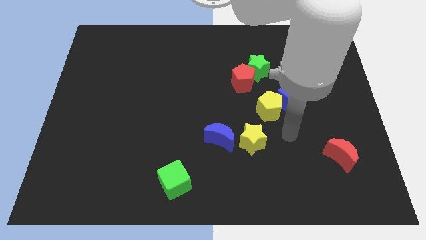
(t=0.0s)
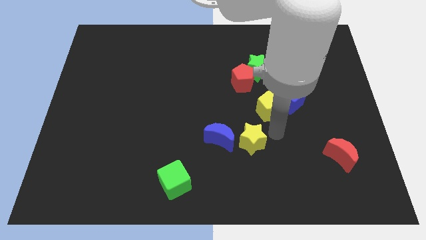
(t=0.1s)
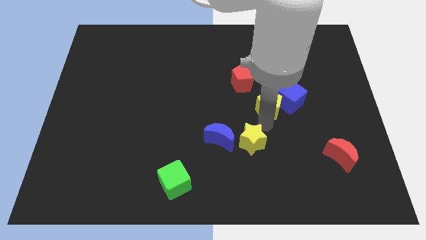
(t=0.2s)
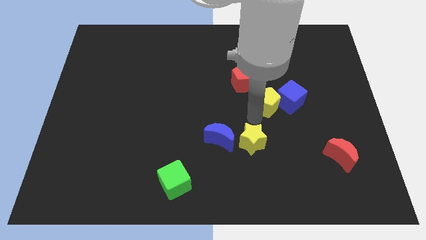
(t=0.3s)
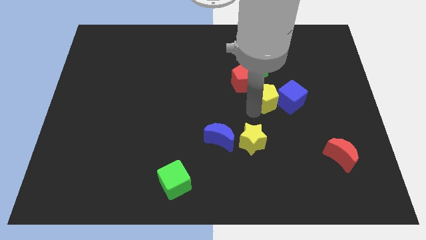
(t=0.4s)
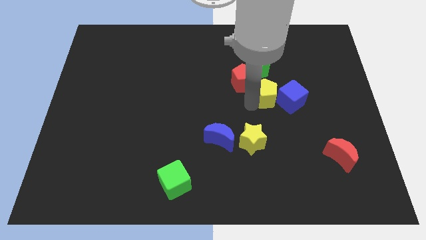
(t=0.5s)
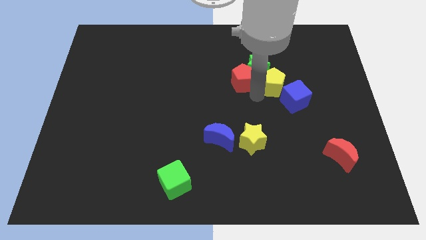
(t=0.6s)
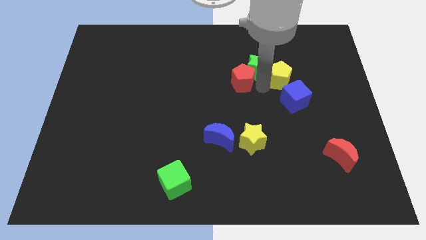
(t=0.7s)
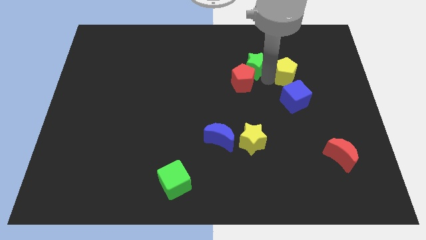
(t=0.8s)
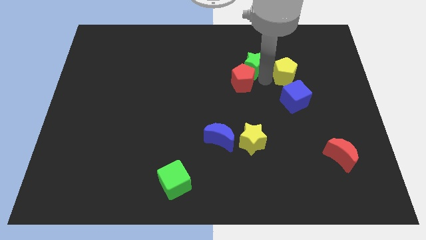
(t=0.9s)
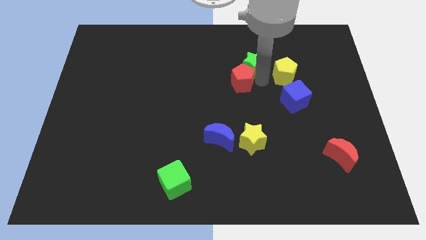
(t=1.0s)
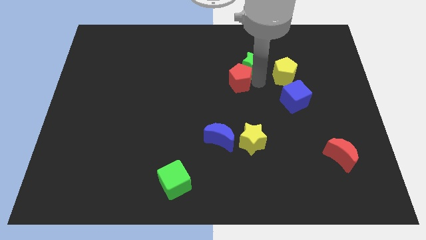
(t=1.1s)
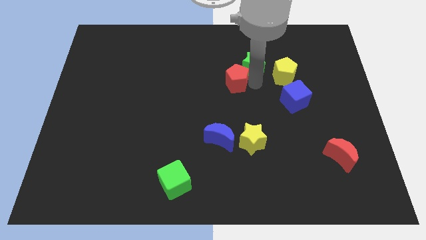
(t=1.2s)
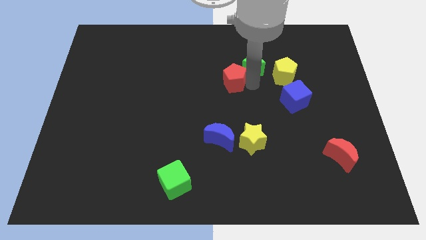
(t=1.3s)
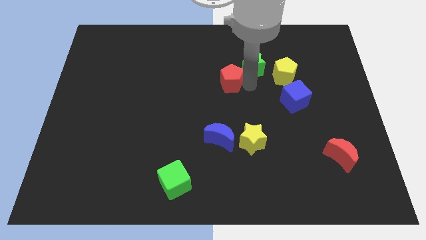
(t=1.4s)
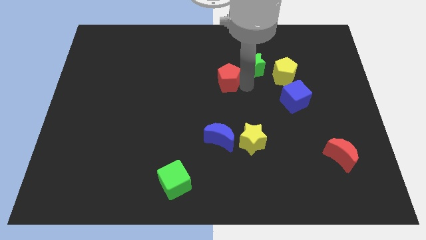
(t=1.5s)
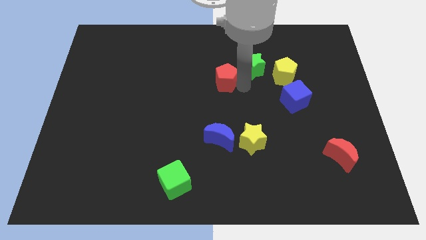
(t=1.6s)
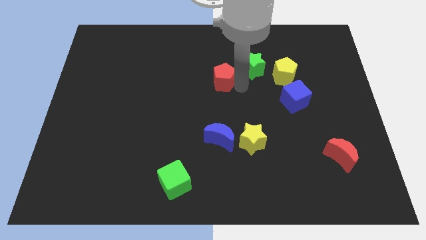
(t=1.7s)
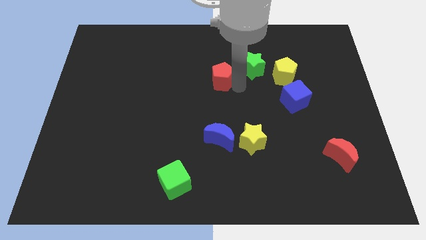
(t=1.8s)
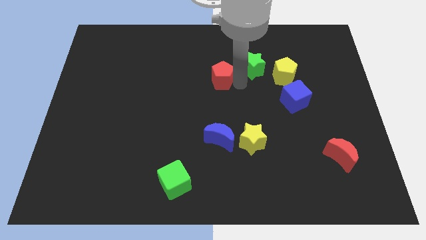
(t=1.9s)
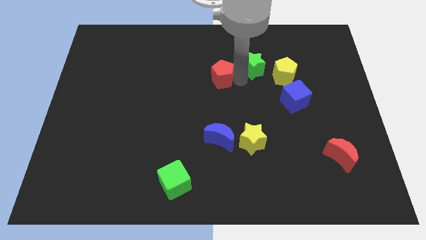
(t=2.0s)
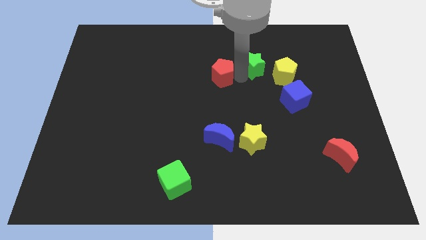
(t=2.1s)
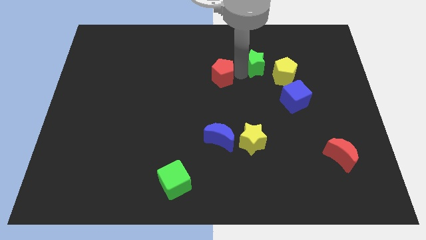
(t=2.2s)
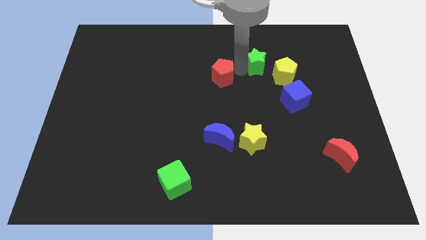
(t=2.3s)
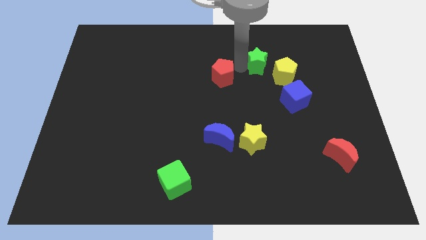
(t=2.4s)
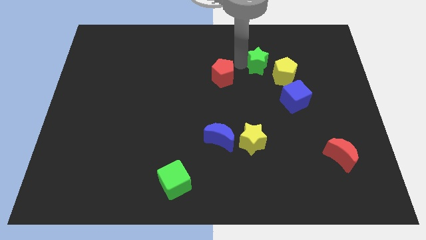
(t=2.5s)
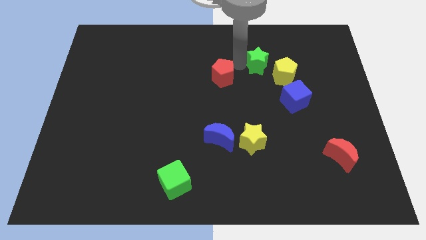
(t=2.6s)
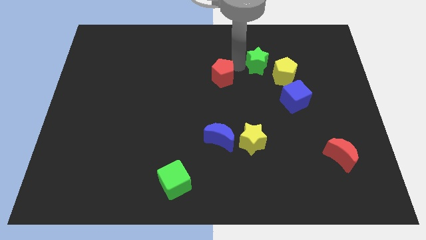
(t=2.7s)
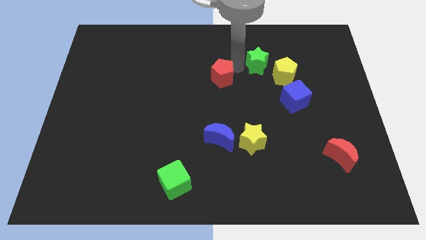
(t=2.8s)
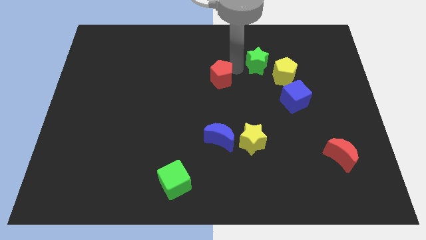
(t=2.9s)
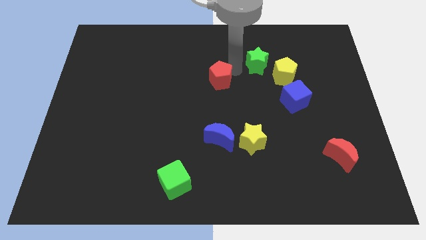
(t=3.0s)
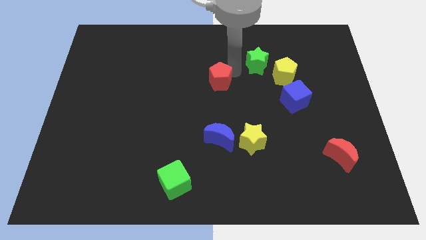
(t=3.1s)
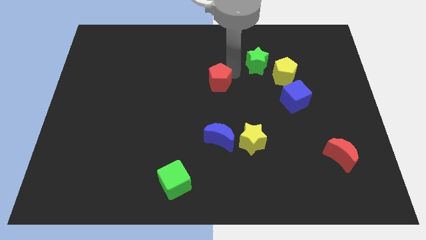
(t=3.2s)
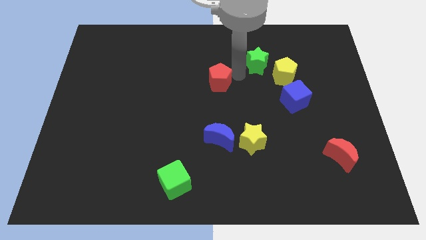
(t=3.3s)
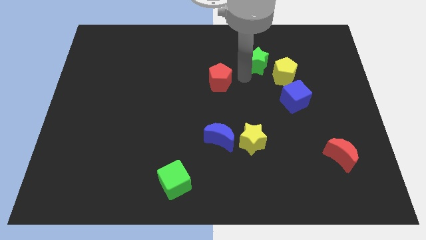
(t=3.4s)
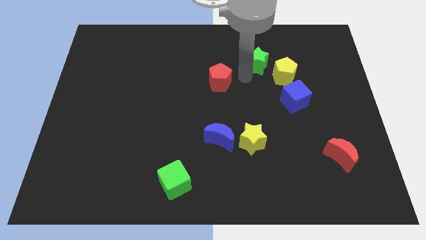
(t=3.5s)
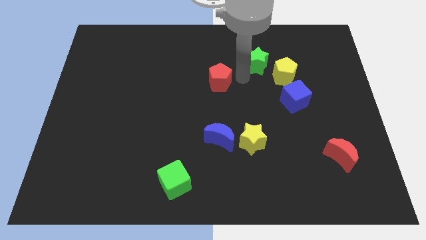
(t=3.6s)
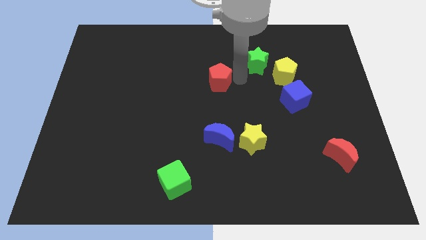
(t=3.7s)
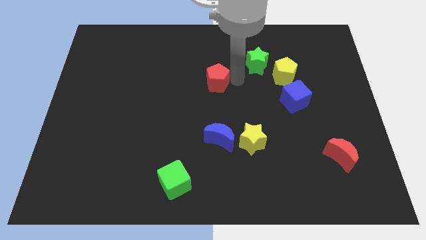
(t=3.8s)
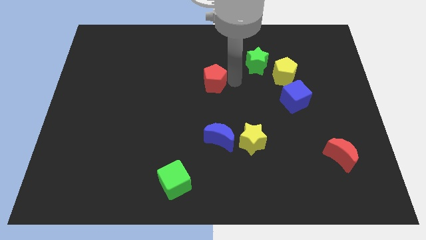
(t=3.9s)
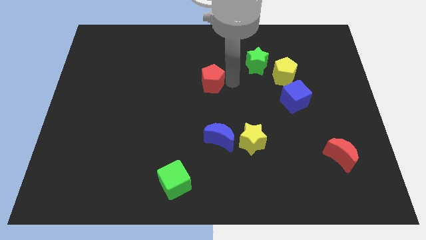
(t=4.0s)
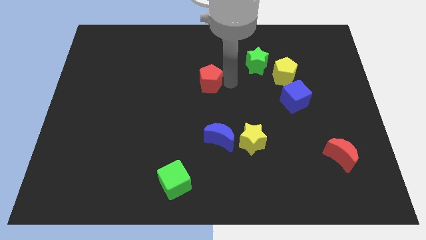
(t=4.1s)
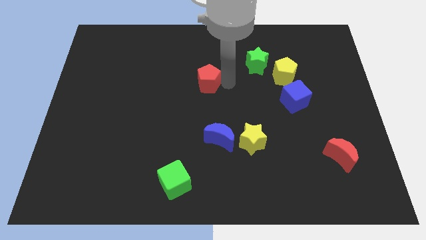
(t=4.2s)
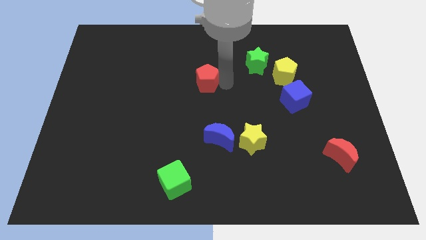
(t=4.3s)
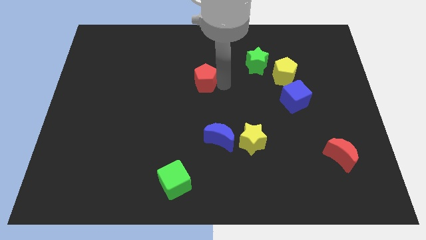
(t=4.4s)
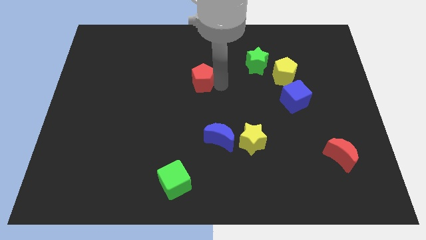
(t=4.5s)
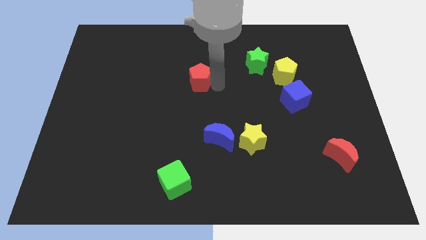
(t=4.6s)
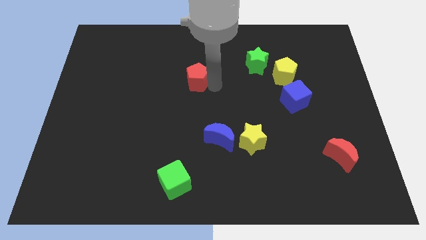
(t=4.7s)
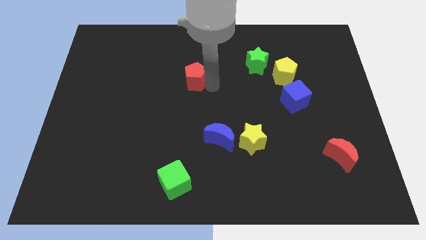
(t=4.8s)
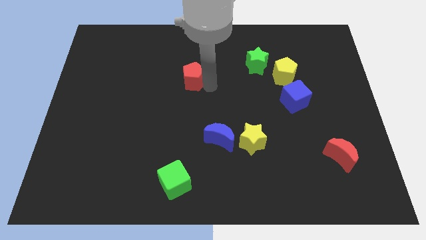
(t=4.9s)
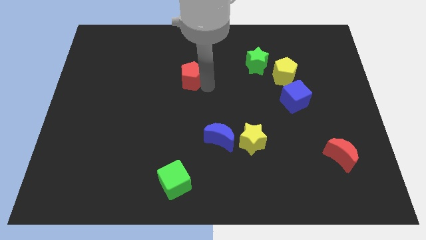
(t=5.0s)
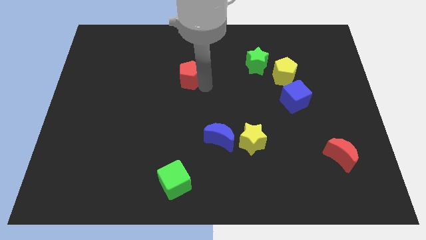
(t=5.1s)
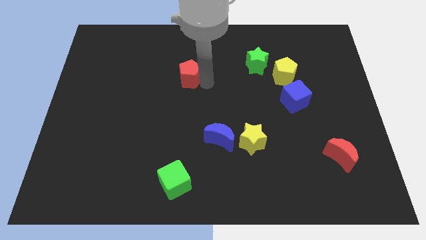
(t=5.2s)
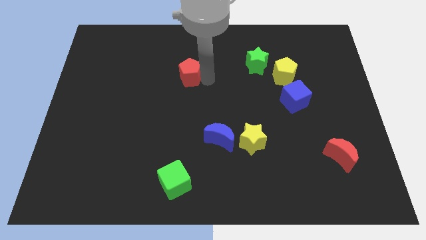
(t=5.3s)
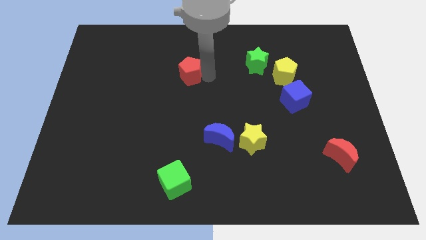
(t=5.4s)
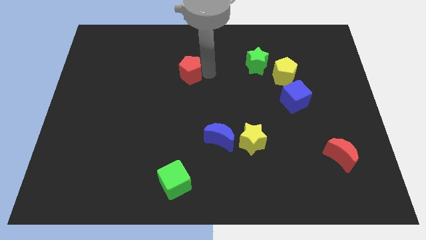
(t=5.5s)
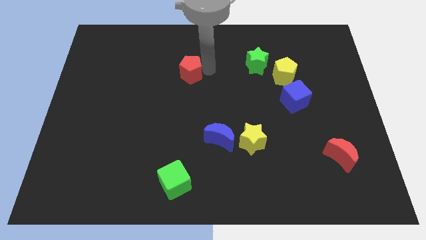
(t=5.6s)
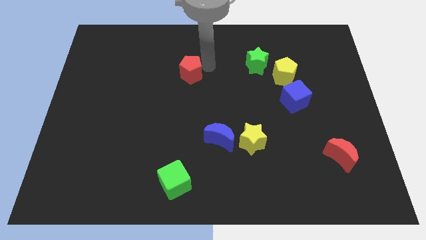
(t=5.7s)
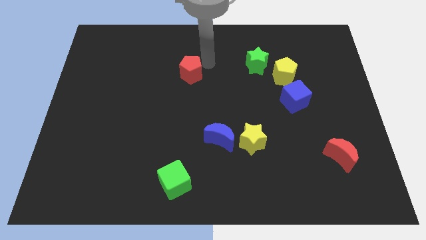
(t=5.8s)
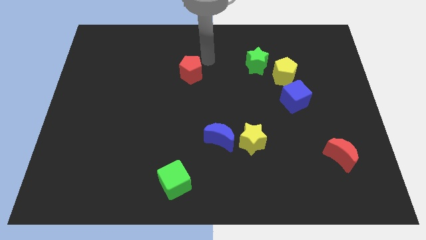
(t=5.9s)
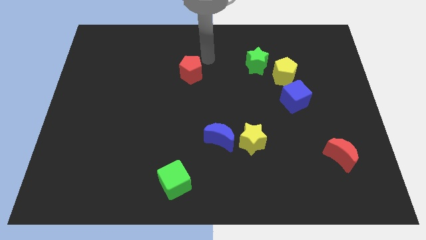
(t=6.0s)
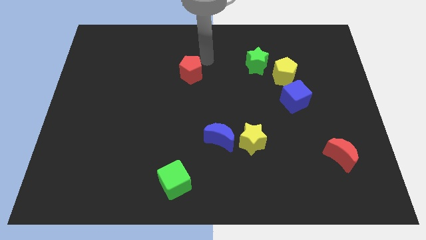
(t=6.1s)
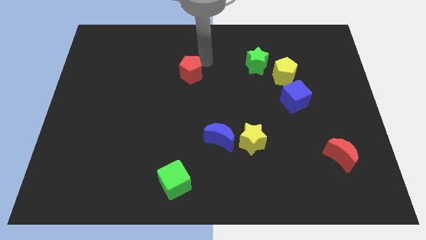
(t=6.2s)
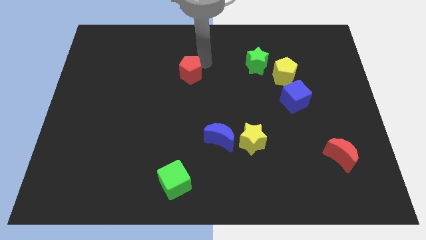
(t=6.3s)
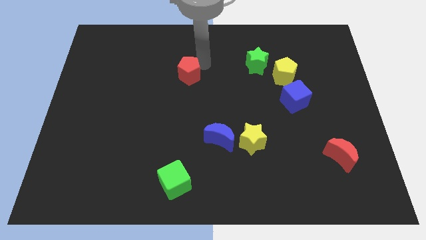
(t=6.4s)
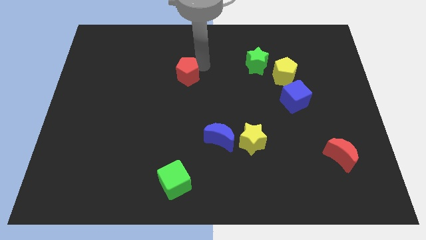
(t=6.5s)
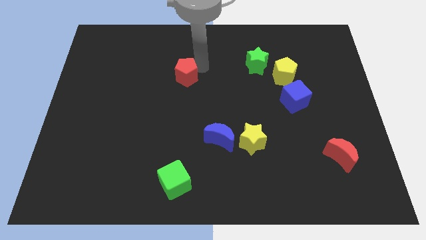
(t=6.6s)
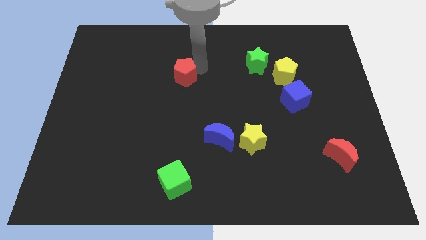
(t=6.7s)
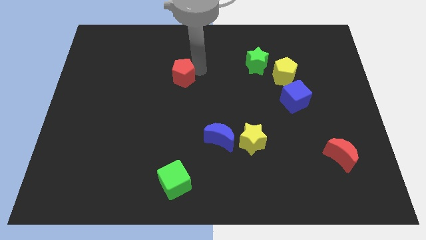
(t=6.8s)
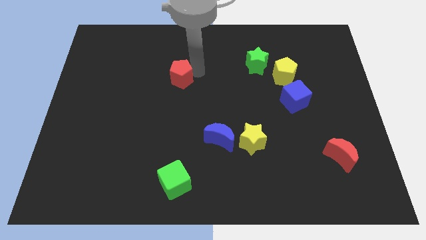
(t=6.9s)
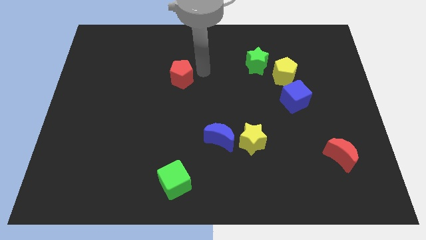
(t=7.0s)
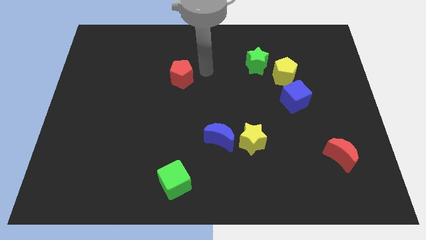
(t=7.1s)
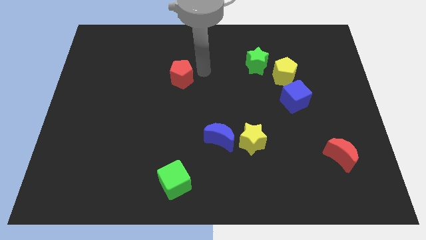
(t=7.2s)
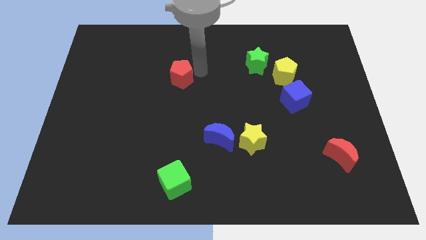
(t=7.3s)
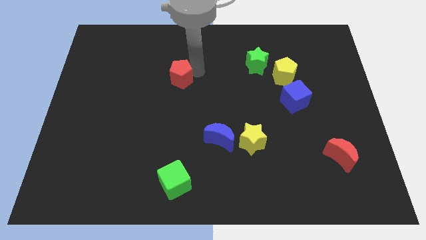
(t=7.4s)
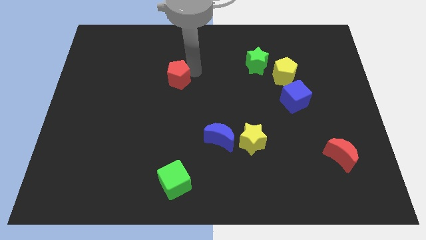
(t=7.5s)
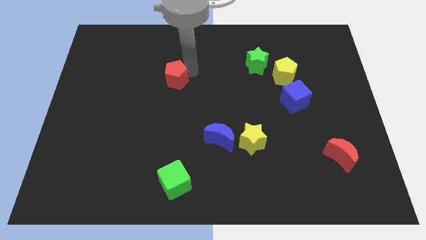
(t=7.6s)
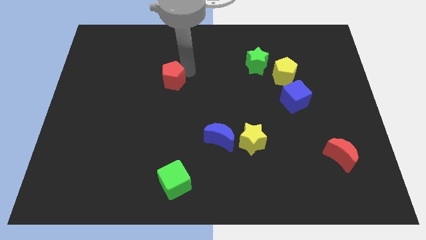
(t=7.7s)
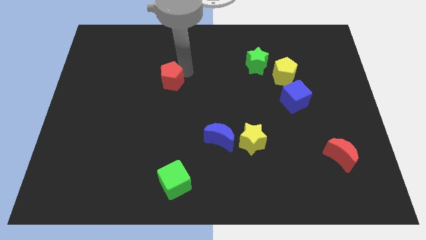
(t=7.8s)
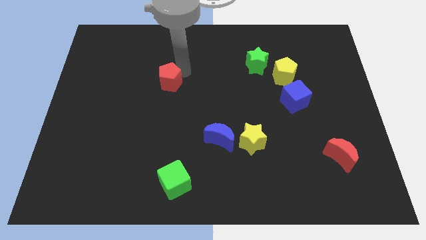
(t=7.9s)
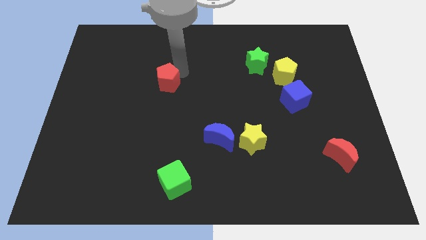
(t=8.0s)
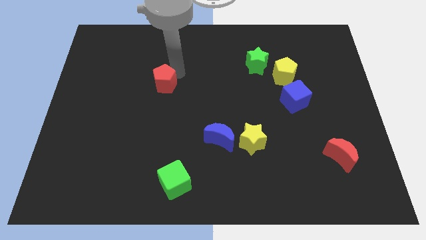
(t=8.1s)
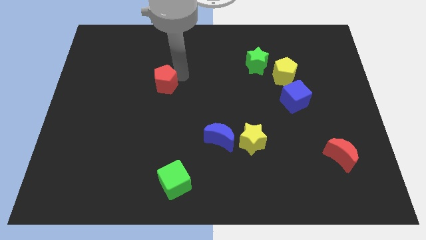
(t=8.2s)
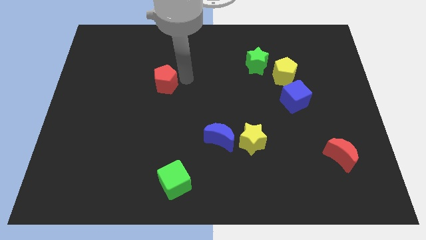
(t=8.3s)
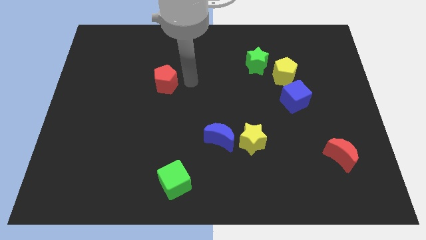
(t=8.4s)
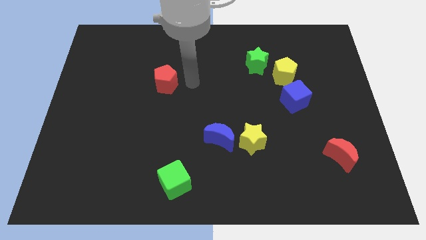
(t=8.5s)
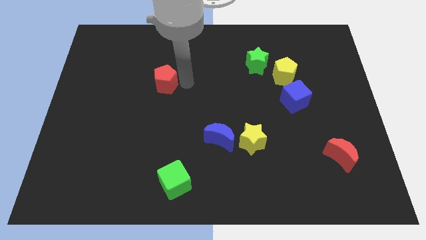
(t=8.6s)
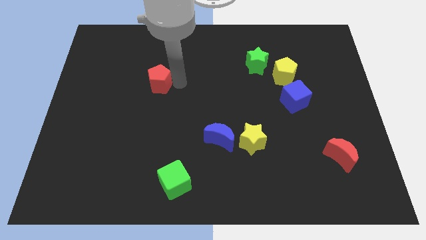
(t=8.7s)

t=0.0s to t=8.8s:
slide the red pentagon left
